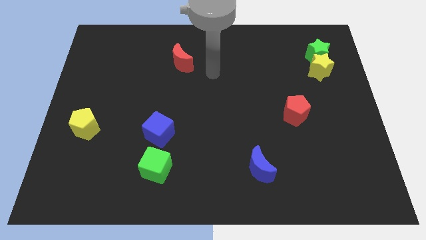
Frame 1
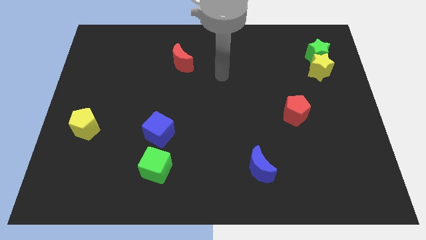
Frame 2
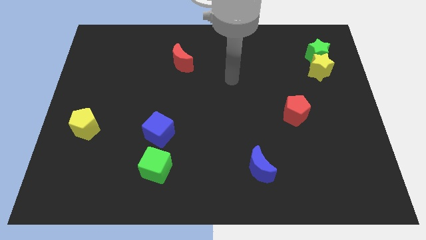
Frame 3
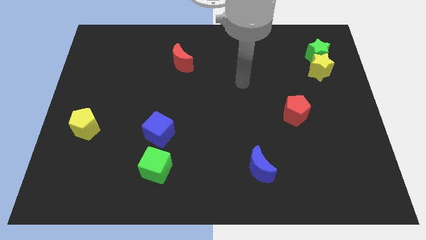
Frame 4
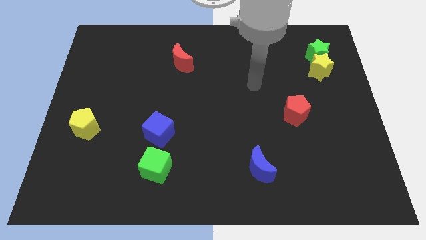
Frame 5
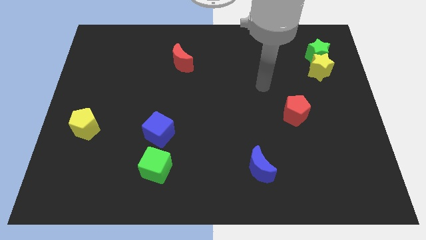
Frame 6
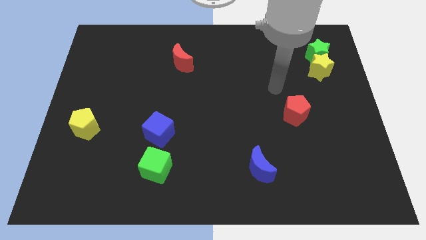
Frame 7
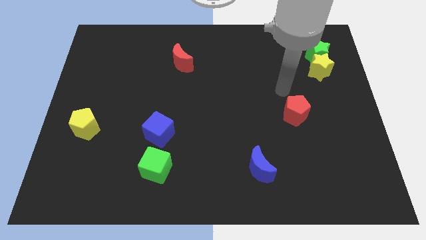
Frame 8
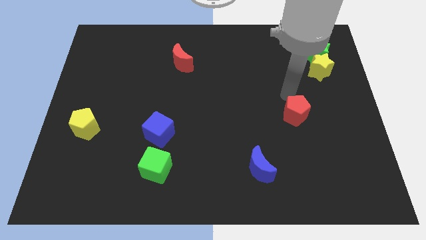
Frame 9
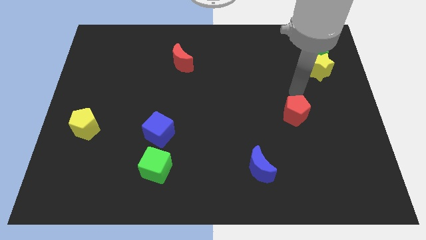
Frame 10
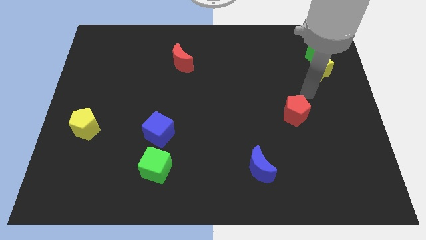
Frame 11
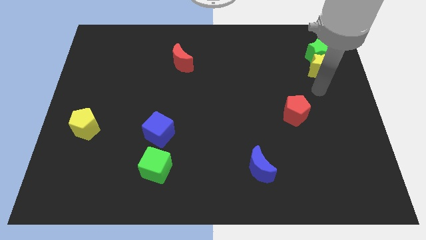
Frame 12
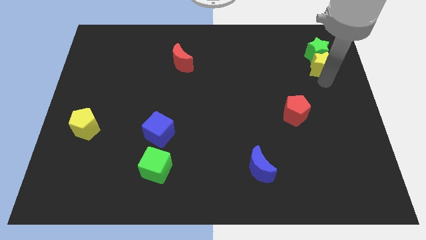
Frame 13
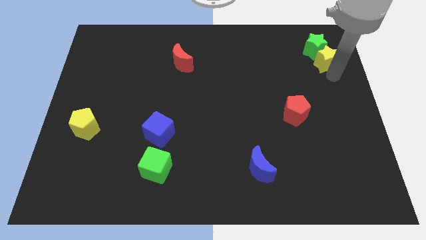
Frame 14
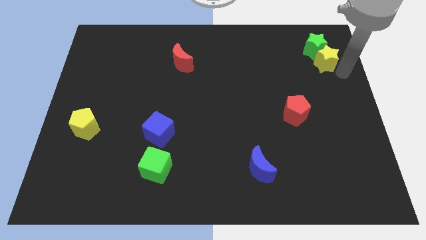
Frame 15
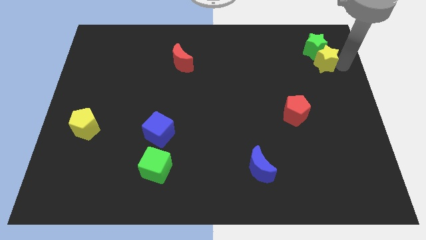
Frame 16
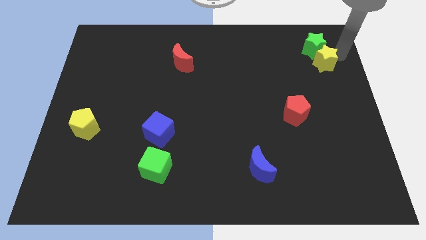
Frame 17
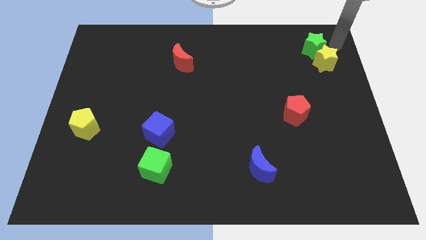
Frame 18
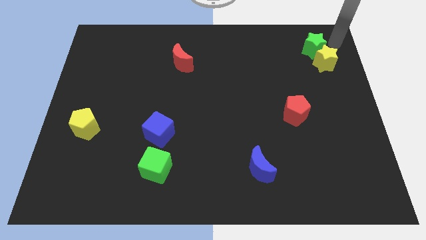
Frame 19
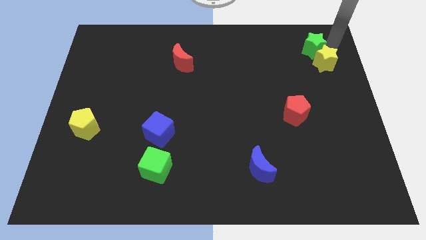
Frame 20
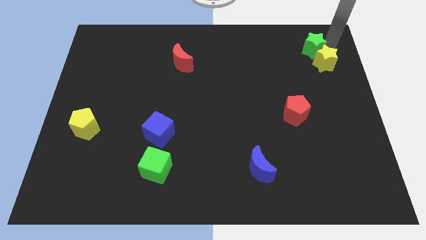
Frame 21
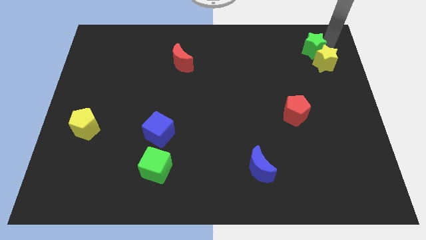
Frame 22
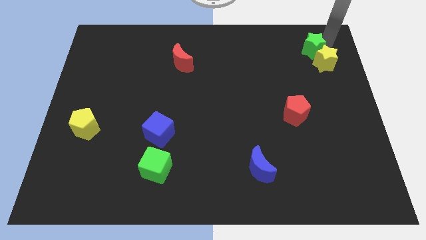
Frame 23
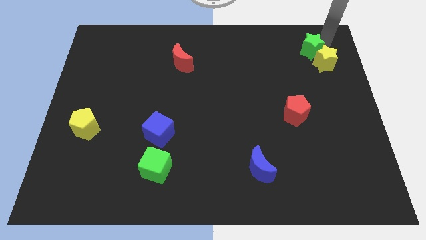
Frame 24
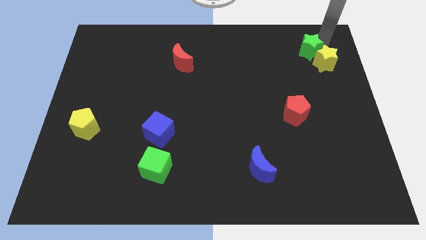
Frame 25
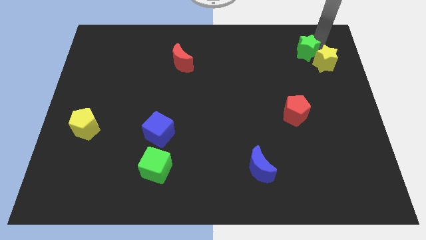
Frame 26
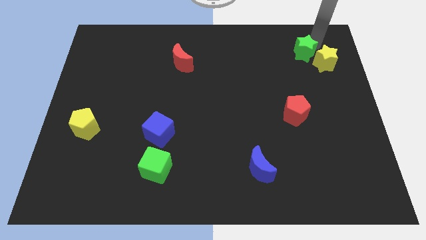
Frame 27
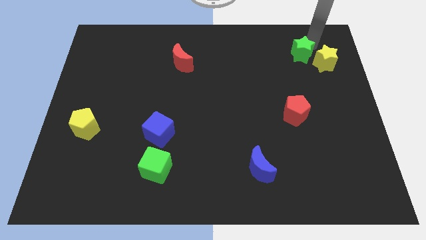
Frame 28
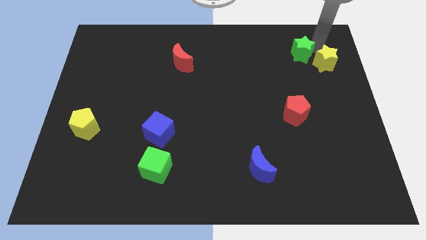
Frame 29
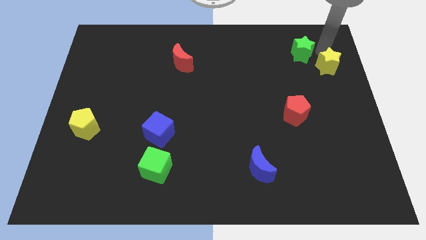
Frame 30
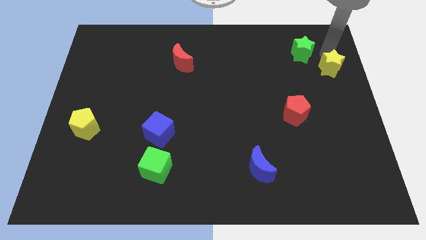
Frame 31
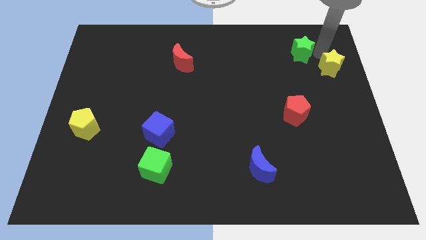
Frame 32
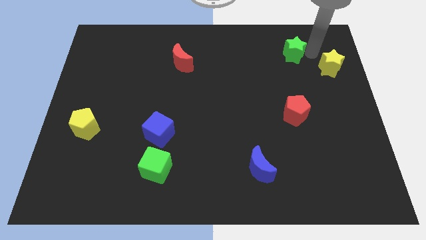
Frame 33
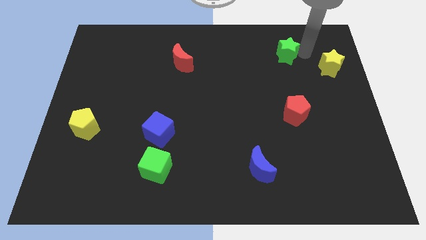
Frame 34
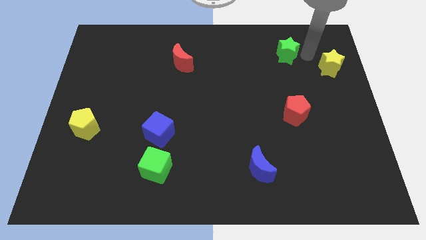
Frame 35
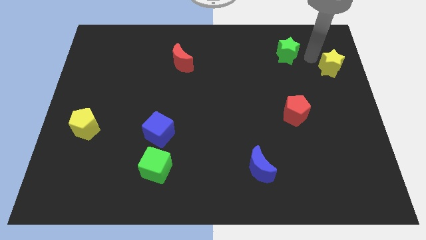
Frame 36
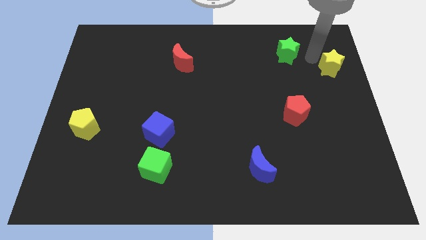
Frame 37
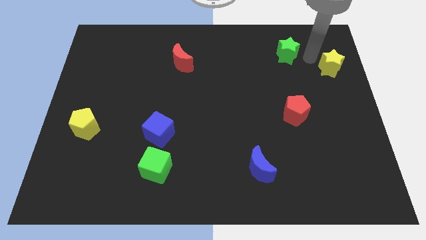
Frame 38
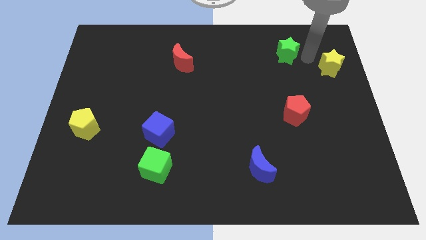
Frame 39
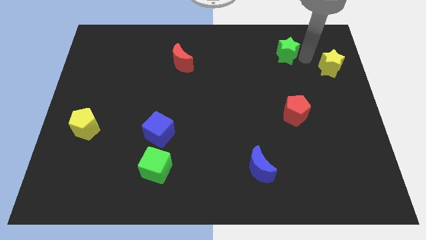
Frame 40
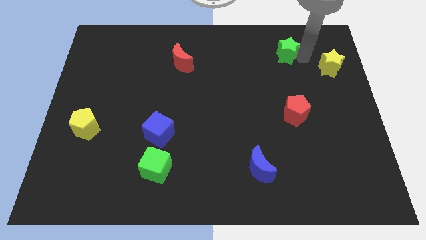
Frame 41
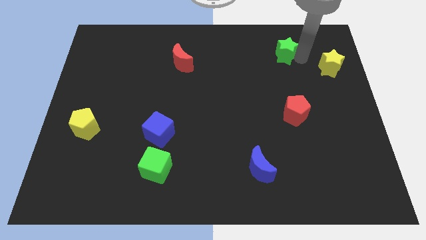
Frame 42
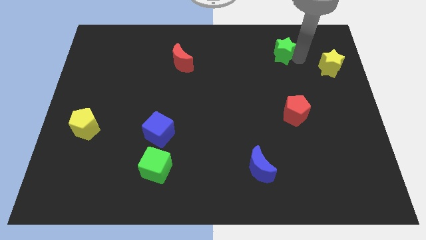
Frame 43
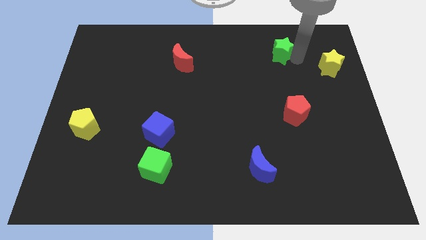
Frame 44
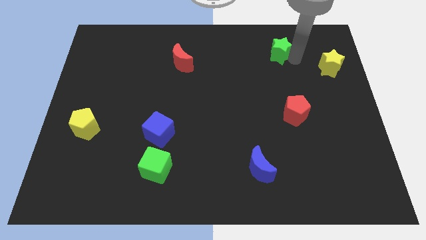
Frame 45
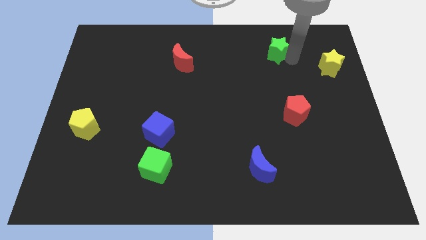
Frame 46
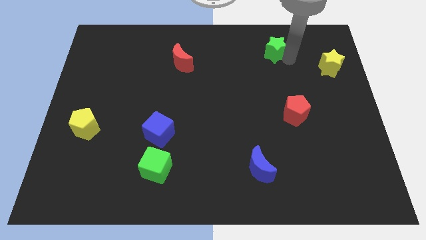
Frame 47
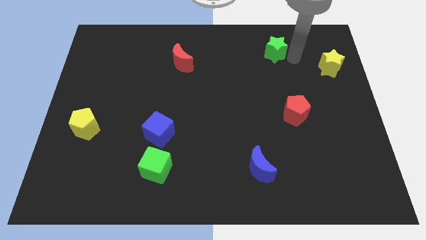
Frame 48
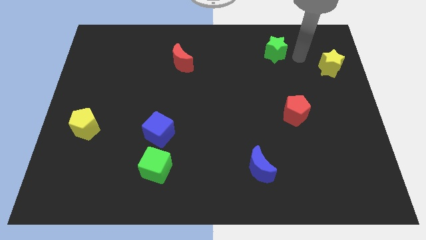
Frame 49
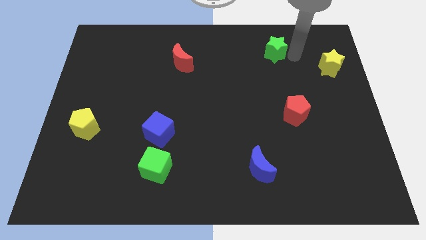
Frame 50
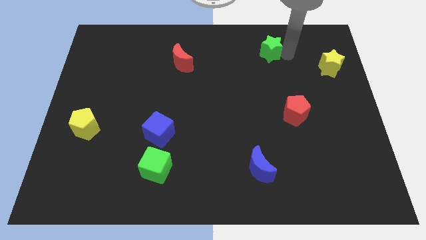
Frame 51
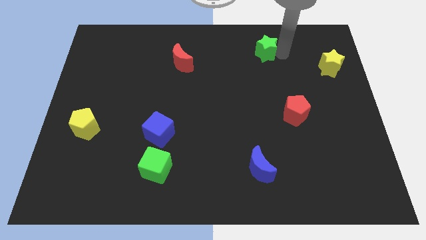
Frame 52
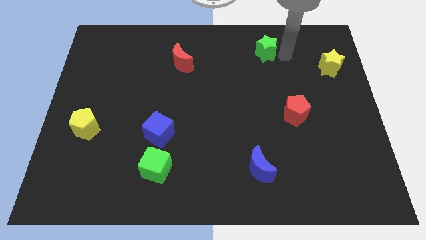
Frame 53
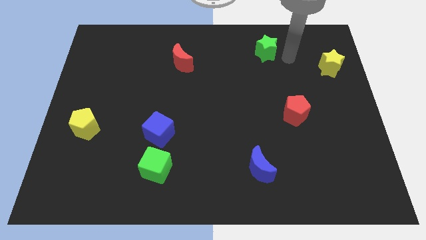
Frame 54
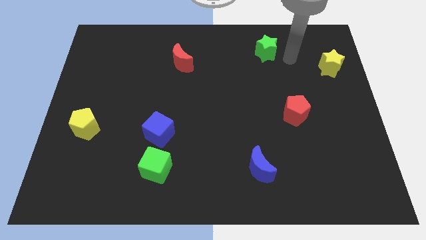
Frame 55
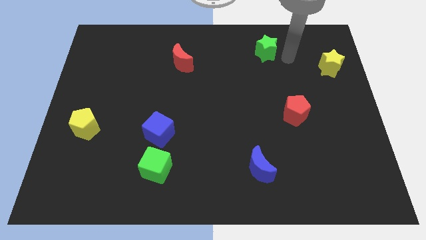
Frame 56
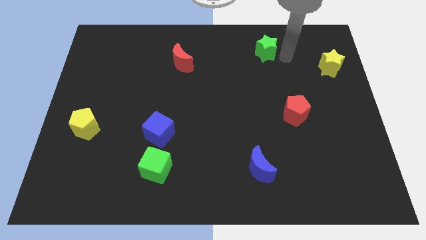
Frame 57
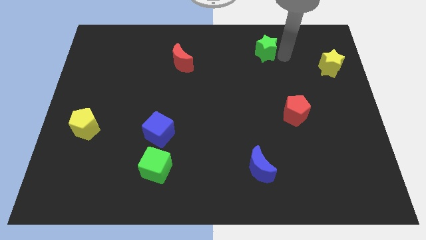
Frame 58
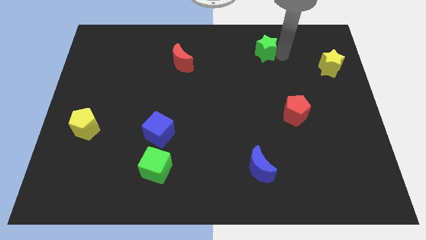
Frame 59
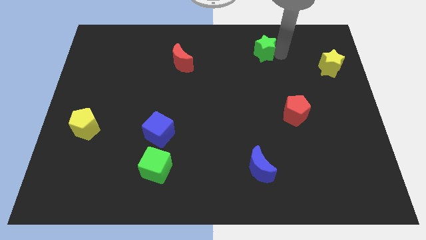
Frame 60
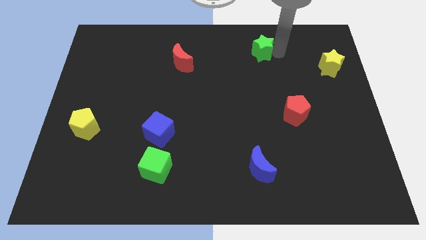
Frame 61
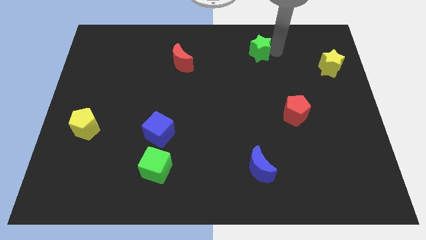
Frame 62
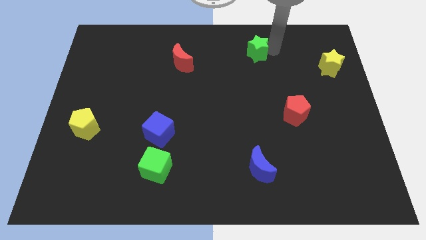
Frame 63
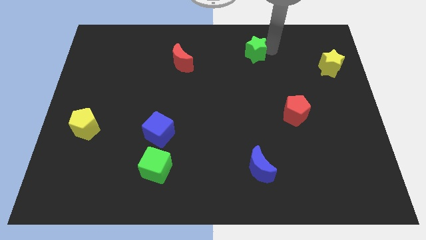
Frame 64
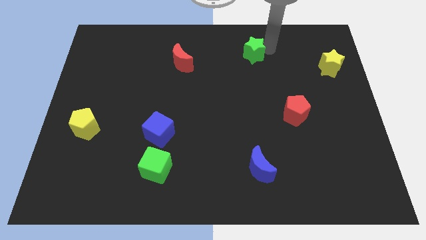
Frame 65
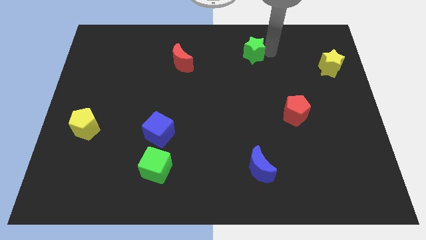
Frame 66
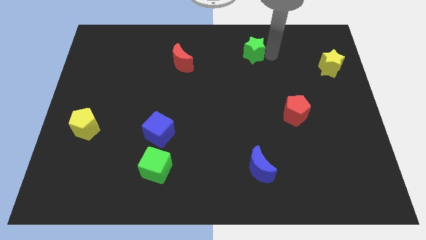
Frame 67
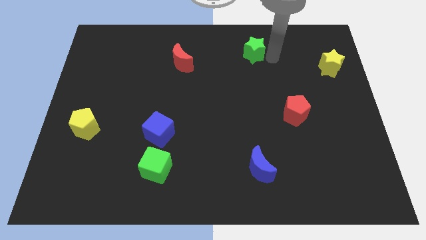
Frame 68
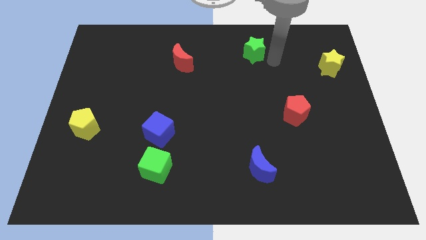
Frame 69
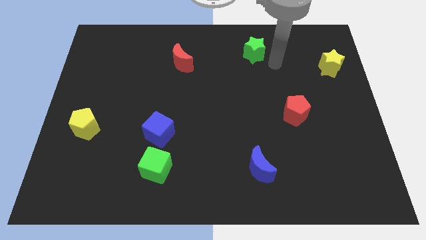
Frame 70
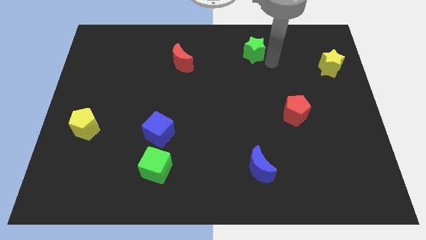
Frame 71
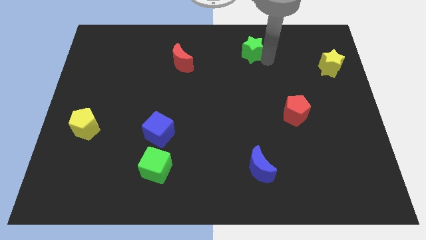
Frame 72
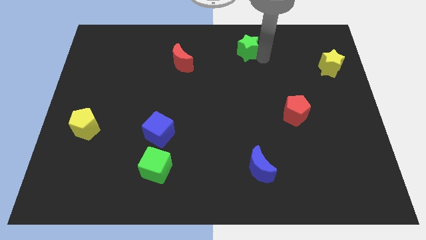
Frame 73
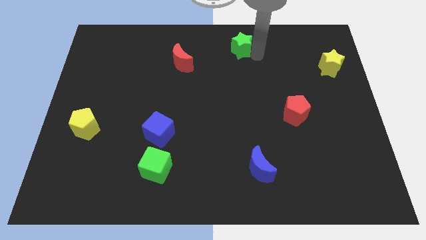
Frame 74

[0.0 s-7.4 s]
move the green star to the towards your base
